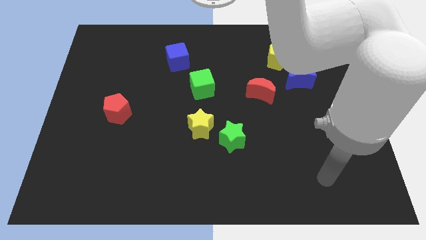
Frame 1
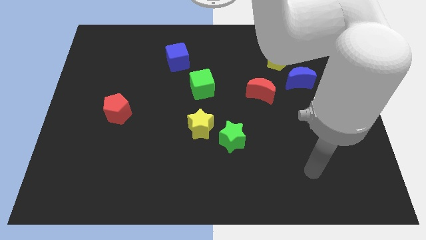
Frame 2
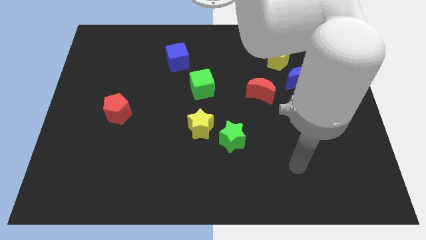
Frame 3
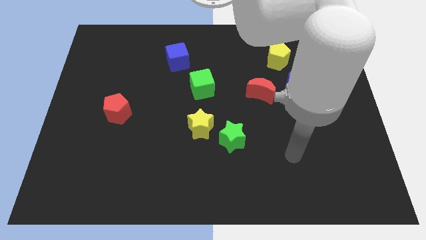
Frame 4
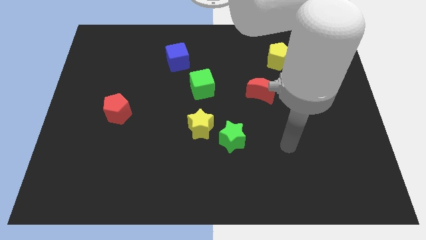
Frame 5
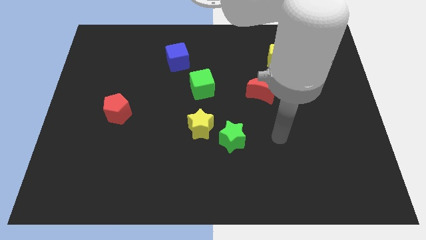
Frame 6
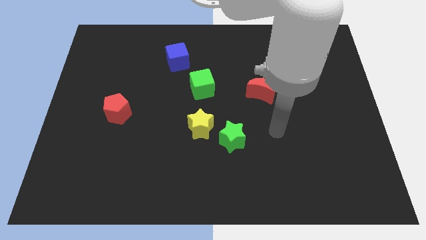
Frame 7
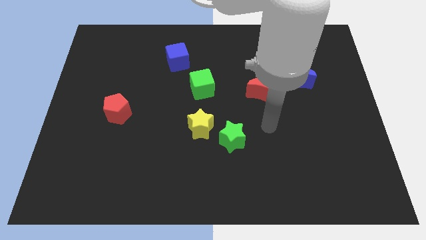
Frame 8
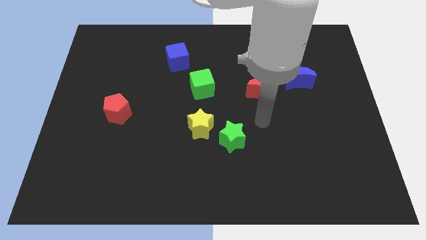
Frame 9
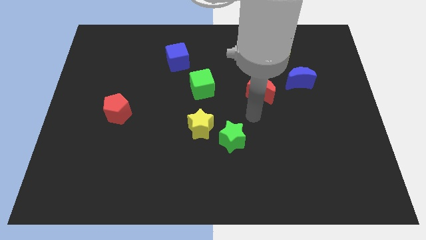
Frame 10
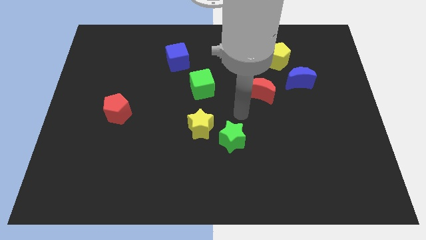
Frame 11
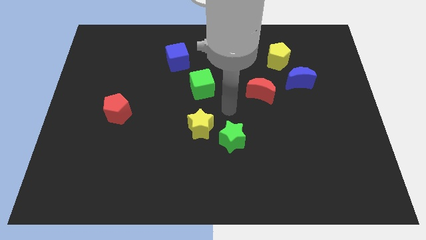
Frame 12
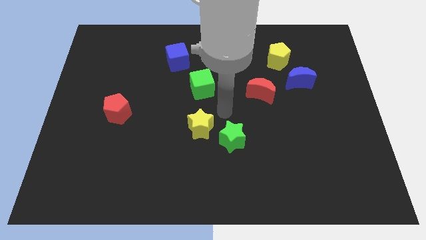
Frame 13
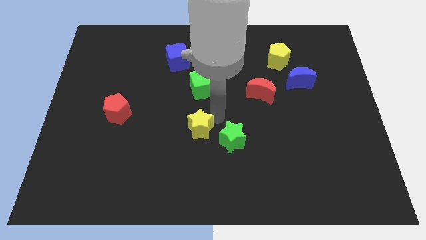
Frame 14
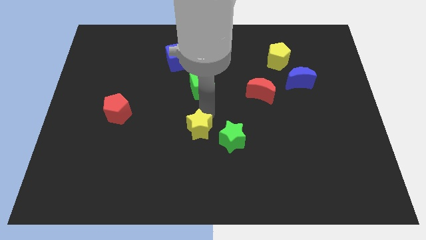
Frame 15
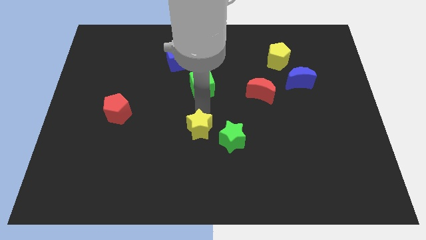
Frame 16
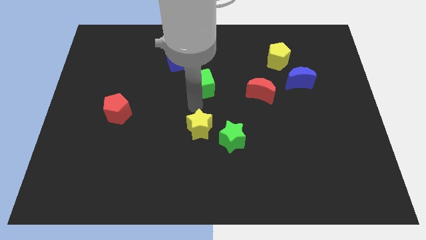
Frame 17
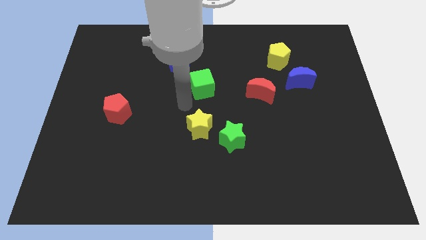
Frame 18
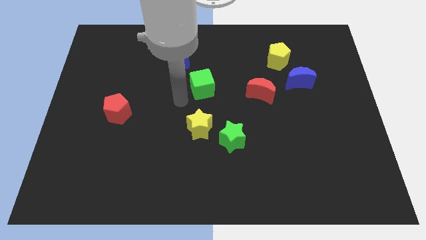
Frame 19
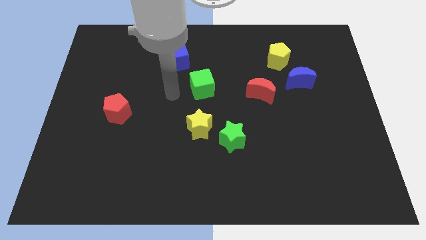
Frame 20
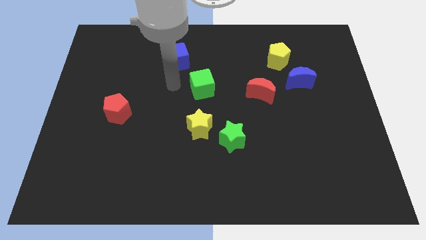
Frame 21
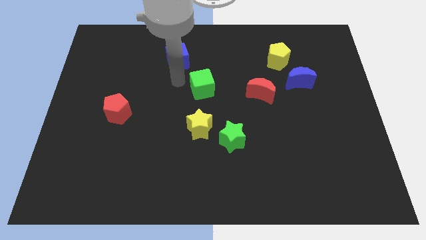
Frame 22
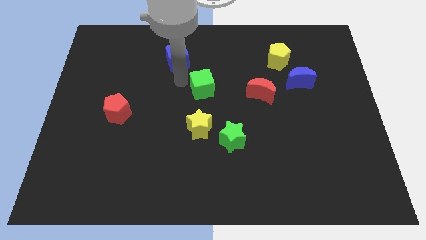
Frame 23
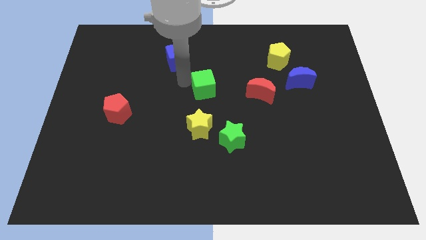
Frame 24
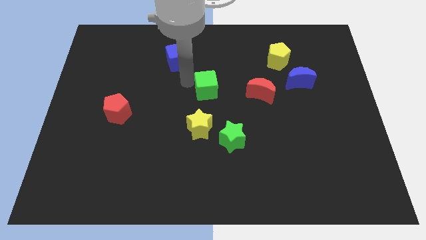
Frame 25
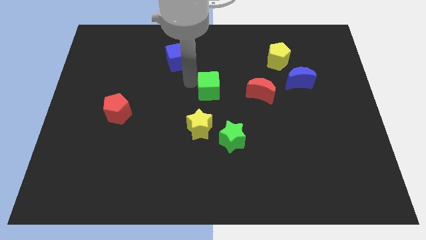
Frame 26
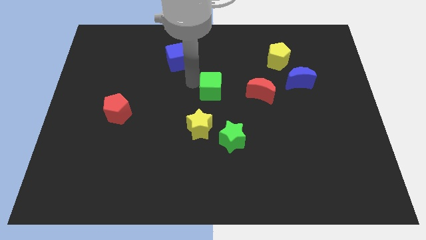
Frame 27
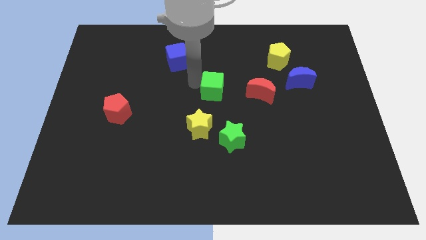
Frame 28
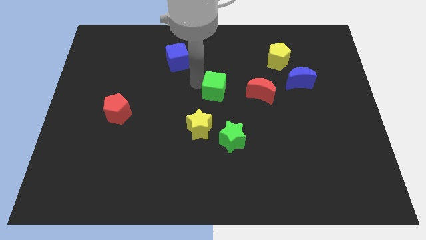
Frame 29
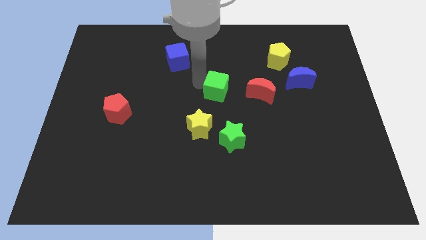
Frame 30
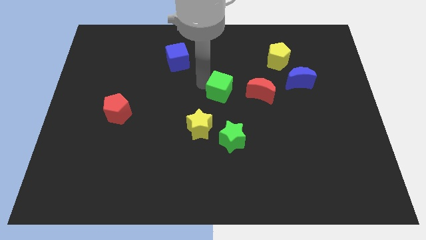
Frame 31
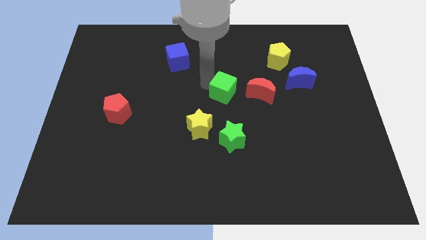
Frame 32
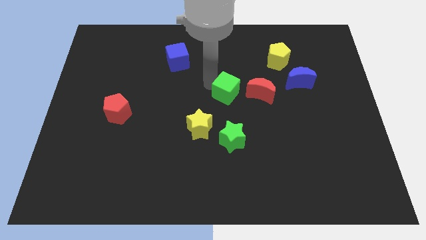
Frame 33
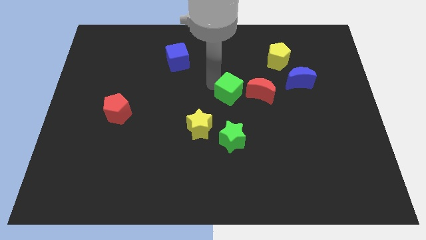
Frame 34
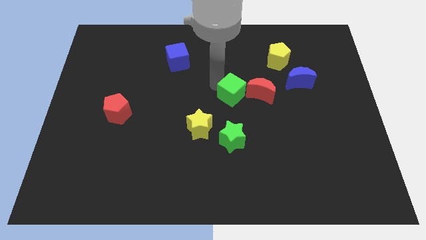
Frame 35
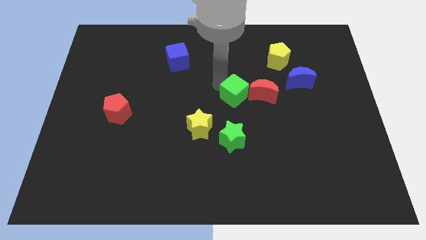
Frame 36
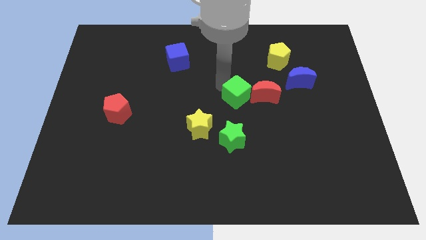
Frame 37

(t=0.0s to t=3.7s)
push the green cube a little bit downwards and to the right

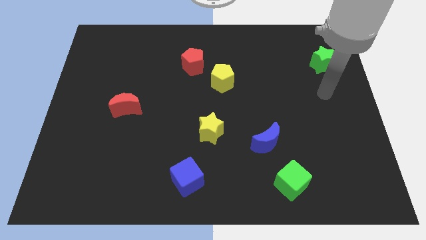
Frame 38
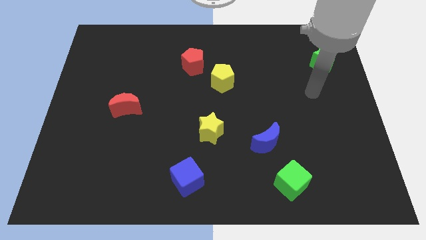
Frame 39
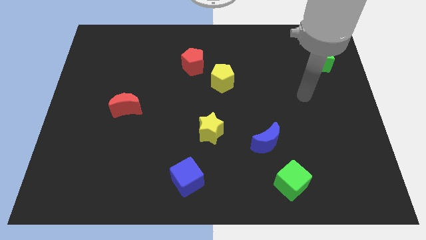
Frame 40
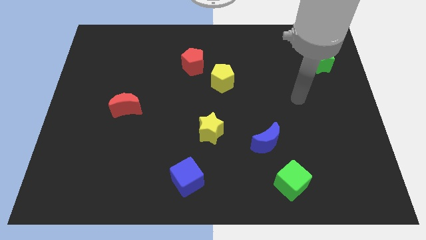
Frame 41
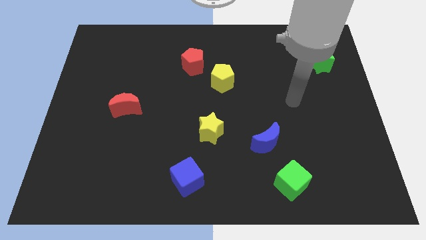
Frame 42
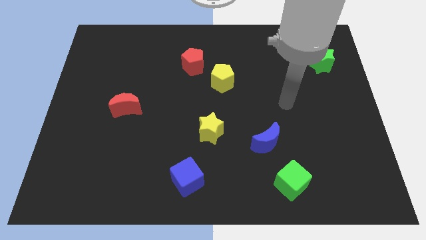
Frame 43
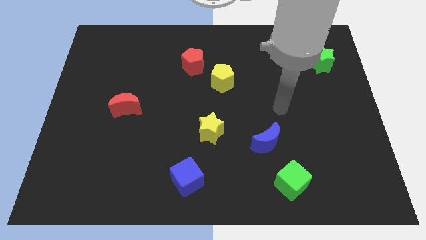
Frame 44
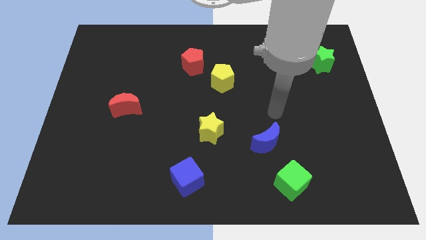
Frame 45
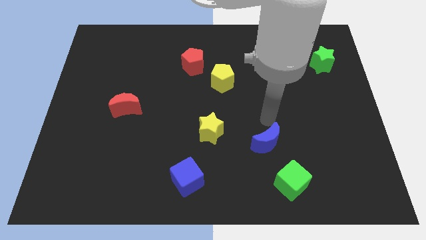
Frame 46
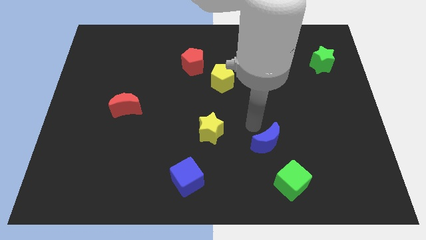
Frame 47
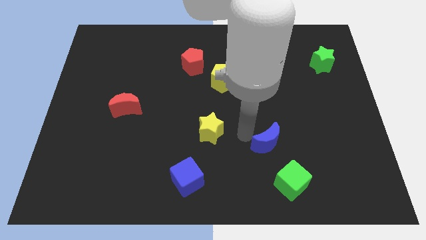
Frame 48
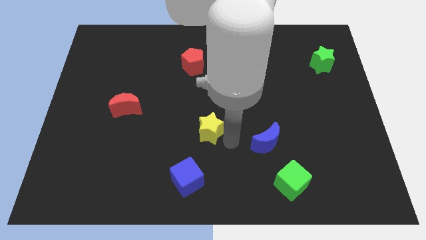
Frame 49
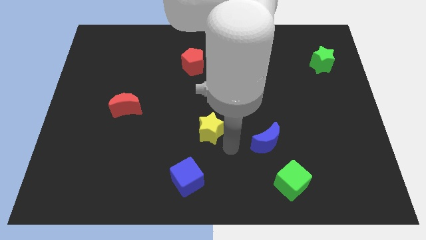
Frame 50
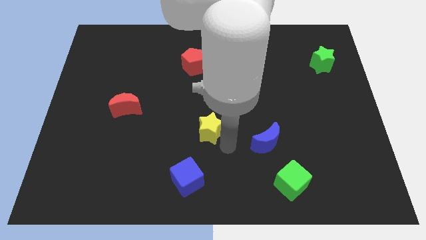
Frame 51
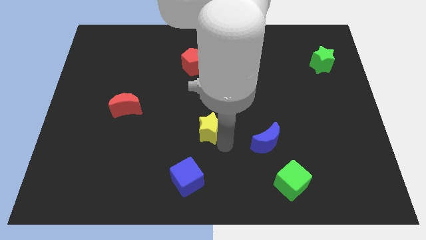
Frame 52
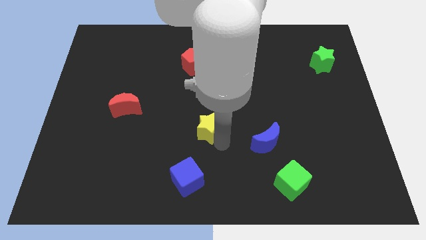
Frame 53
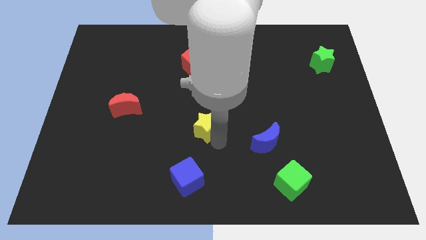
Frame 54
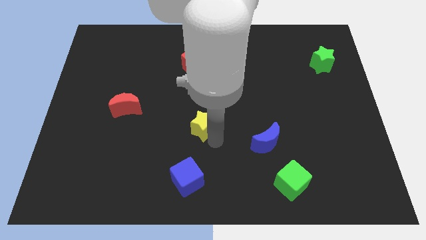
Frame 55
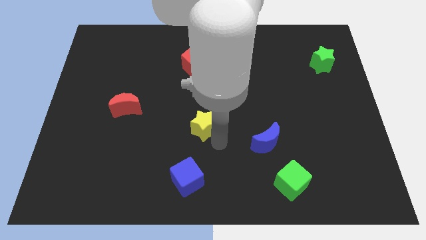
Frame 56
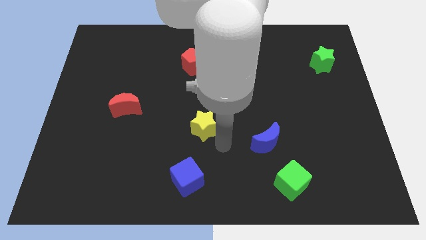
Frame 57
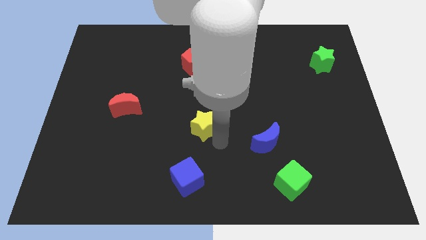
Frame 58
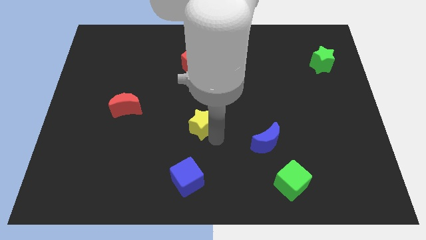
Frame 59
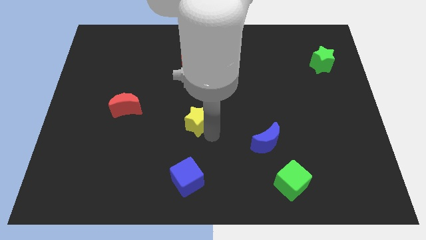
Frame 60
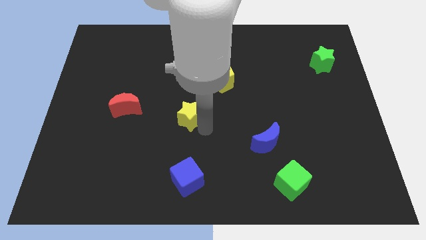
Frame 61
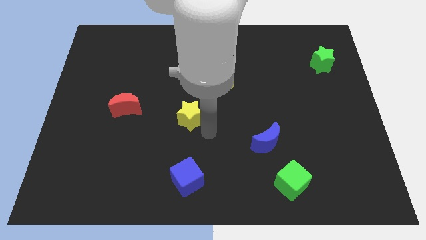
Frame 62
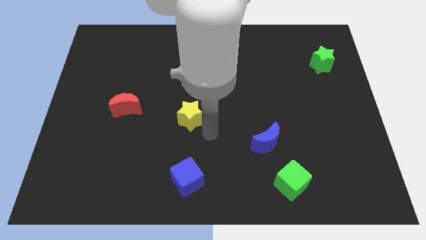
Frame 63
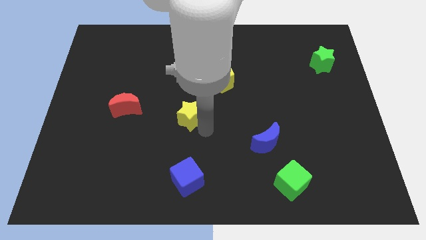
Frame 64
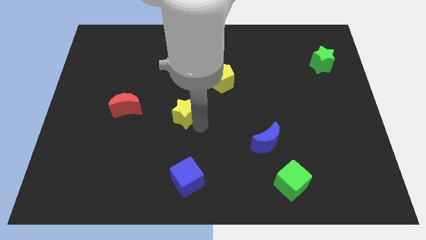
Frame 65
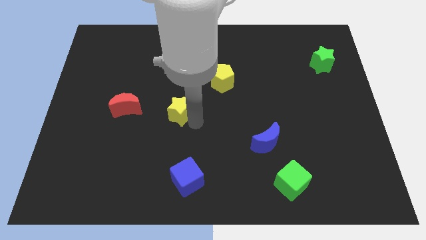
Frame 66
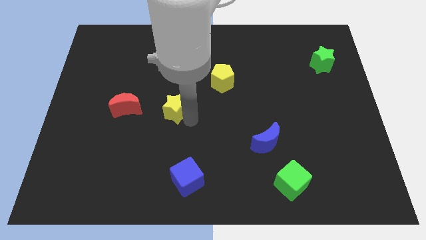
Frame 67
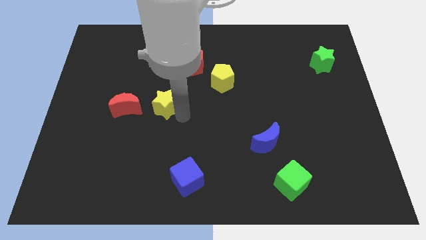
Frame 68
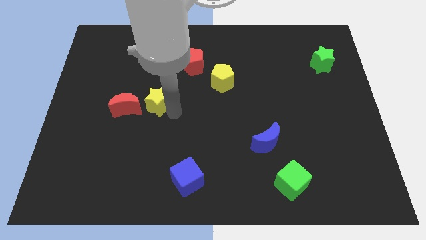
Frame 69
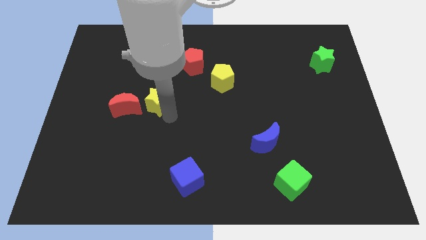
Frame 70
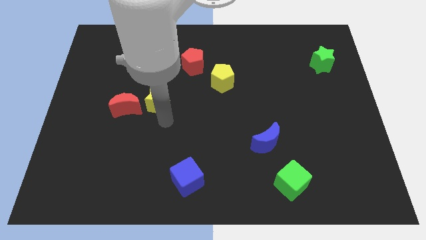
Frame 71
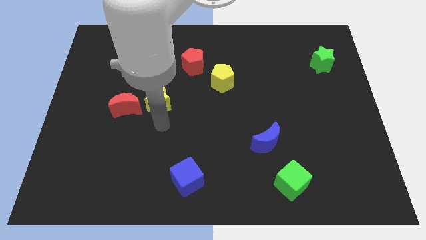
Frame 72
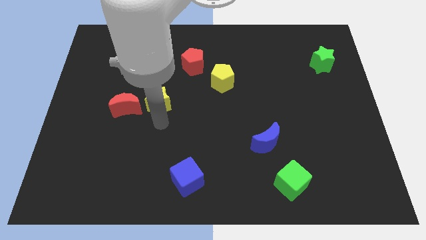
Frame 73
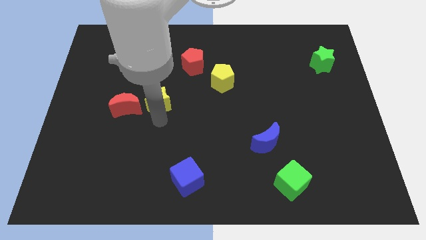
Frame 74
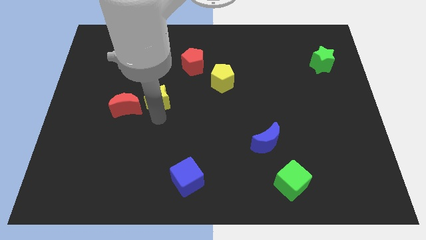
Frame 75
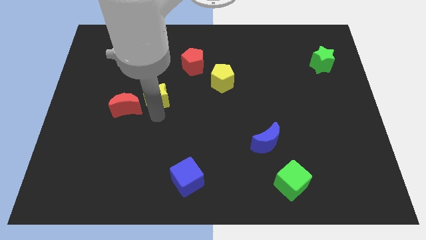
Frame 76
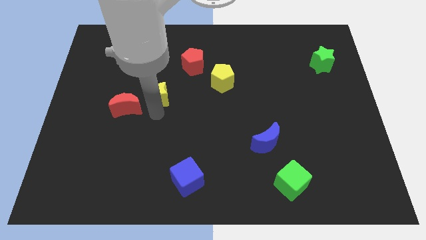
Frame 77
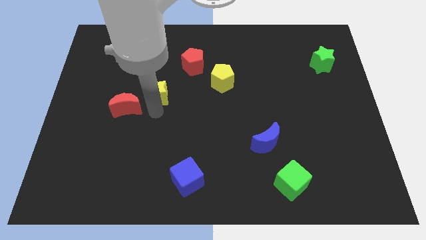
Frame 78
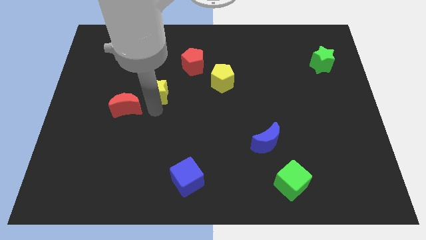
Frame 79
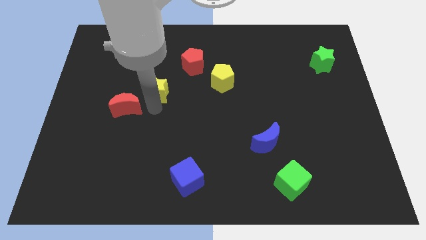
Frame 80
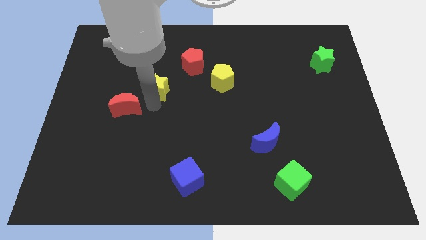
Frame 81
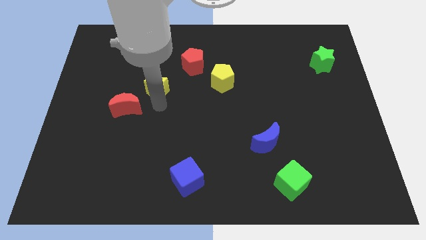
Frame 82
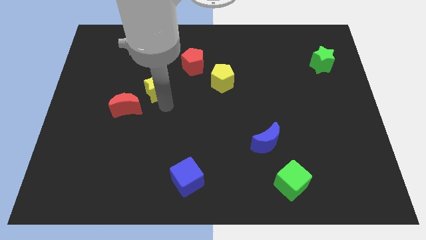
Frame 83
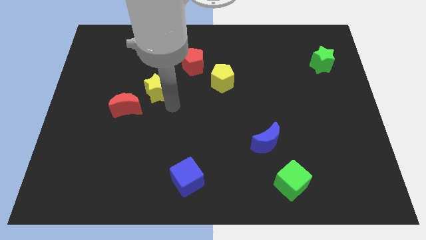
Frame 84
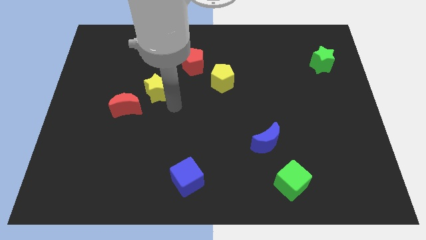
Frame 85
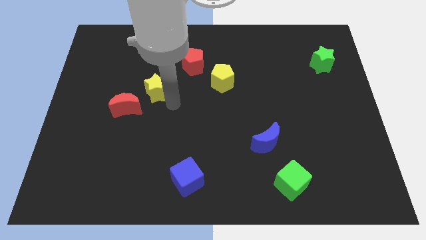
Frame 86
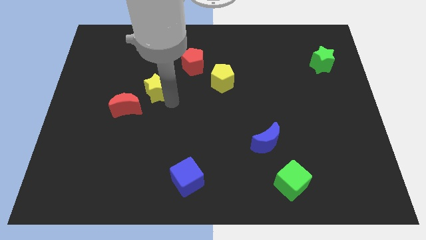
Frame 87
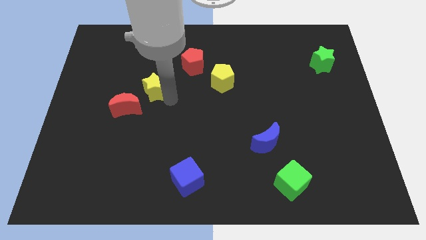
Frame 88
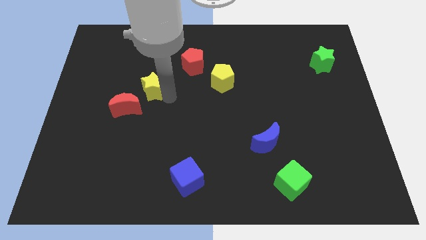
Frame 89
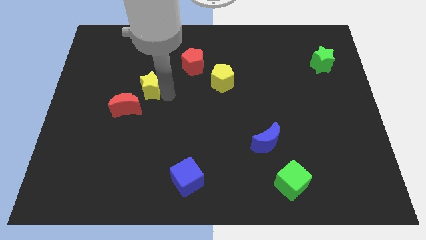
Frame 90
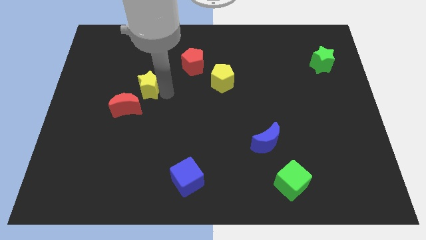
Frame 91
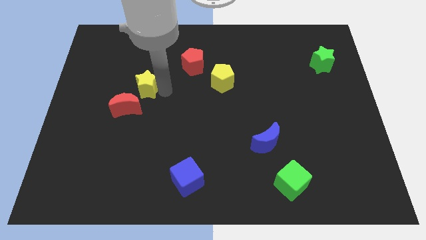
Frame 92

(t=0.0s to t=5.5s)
push the yellow star diagonally up and to the left
